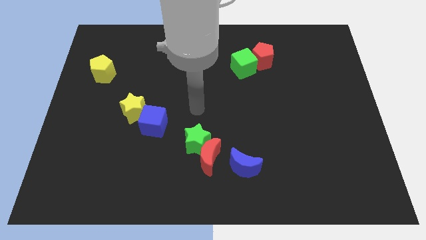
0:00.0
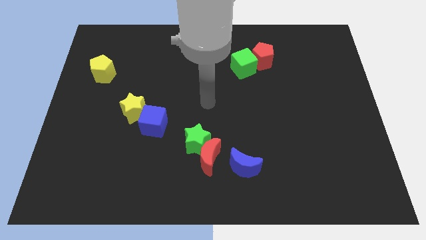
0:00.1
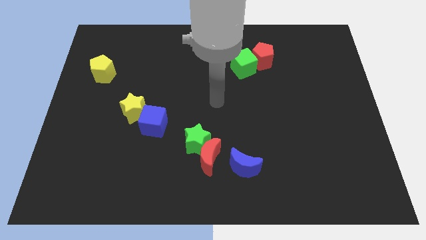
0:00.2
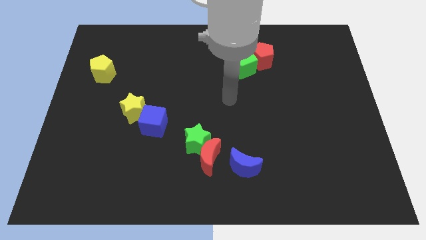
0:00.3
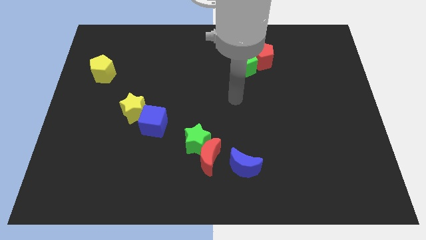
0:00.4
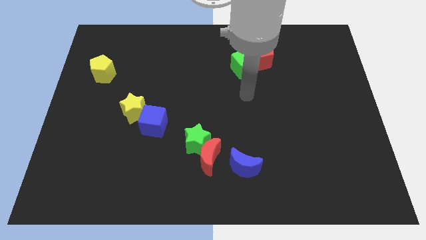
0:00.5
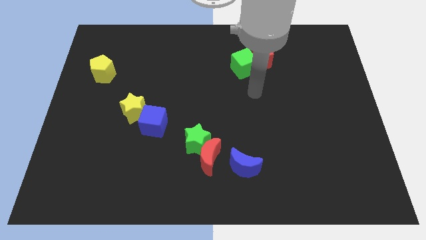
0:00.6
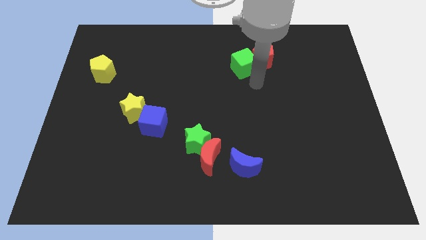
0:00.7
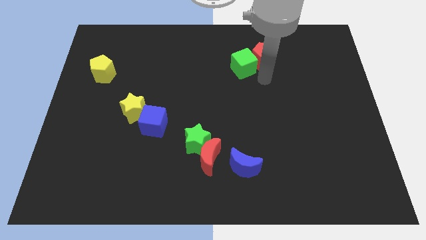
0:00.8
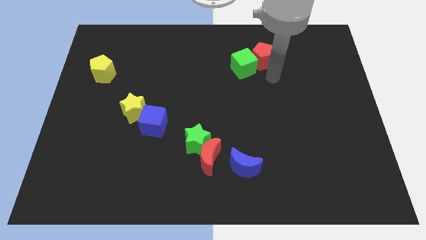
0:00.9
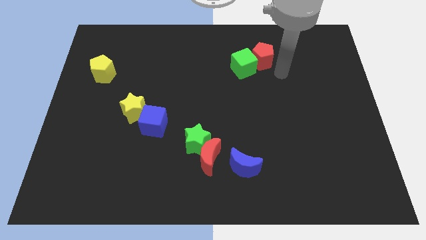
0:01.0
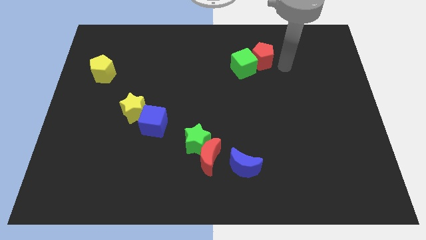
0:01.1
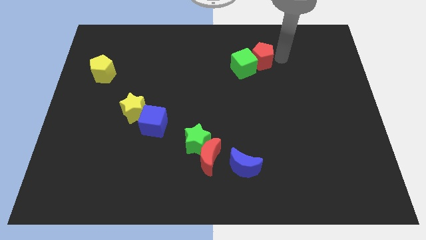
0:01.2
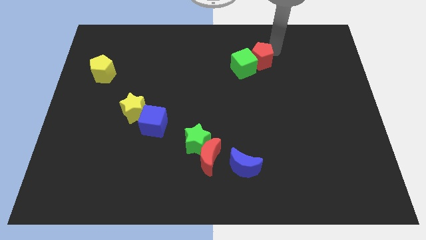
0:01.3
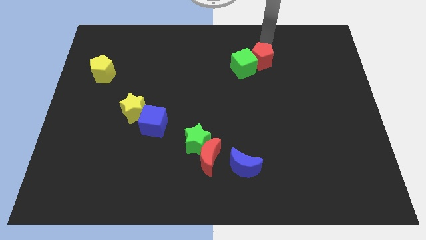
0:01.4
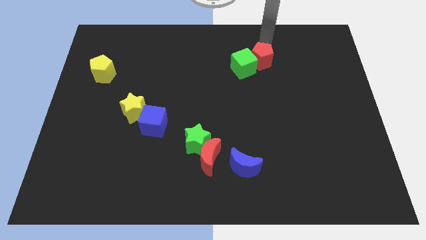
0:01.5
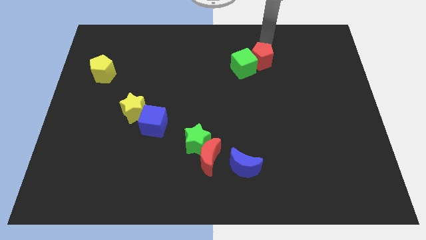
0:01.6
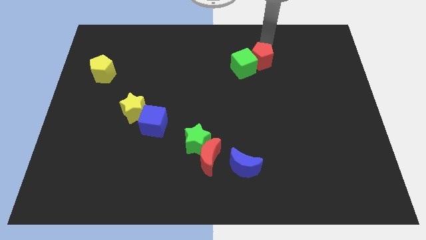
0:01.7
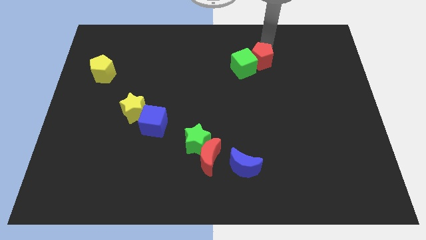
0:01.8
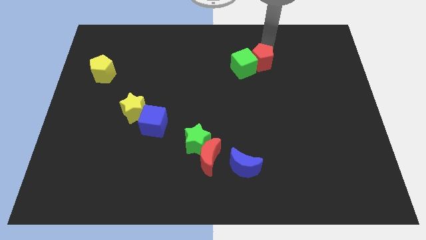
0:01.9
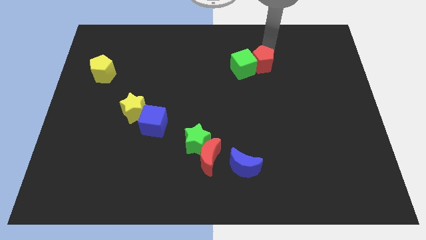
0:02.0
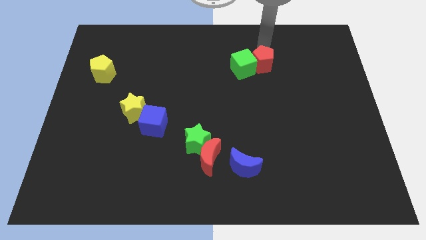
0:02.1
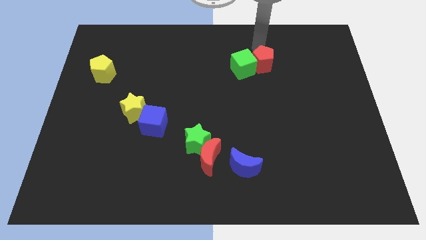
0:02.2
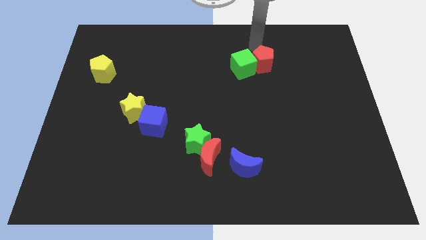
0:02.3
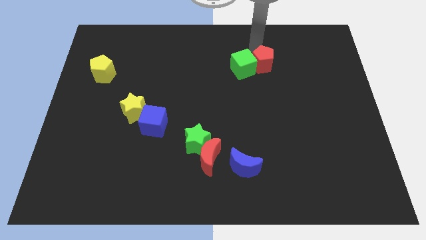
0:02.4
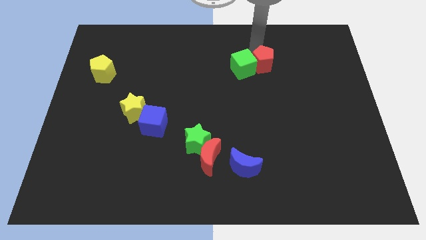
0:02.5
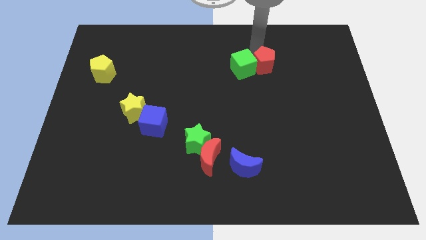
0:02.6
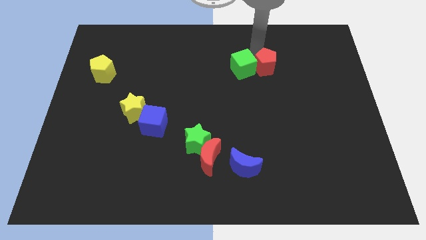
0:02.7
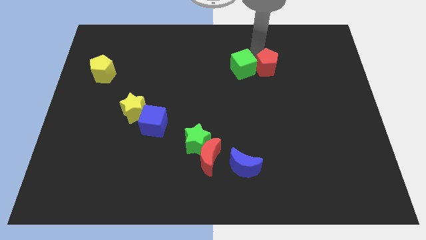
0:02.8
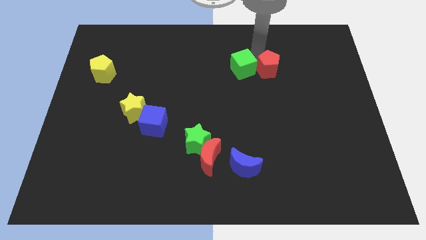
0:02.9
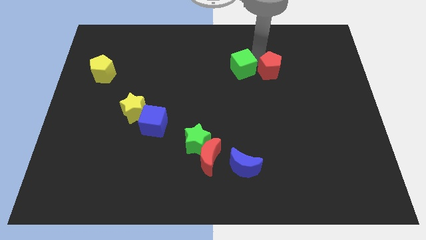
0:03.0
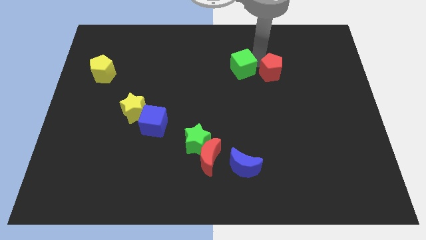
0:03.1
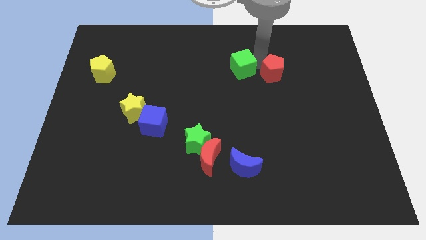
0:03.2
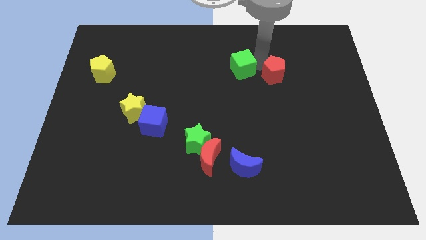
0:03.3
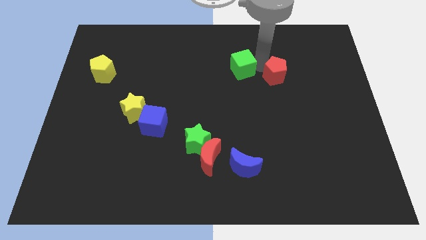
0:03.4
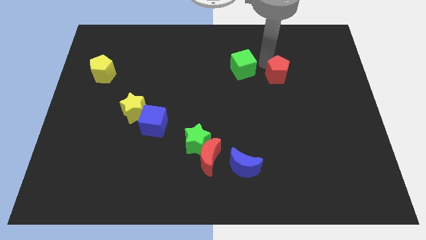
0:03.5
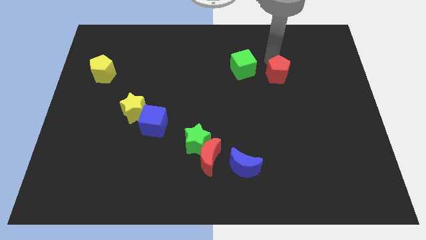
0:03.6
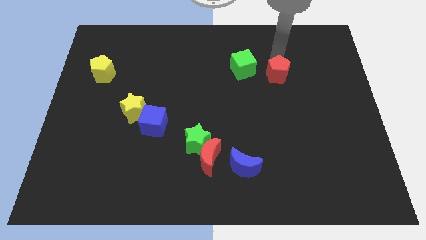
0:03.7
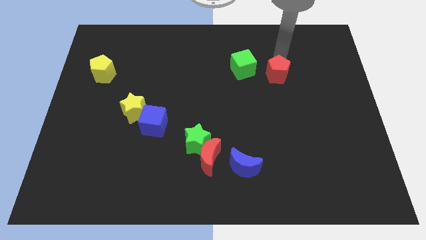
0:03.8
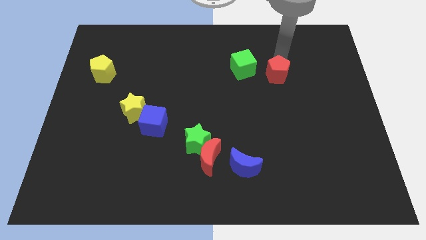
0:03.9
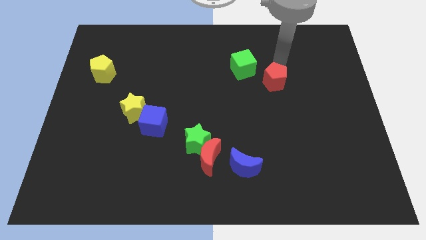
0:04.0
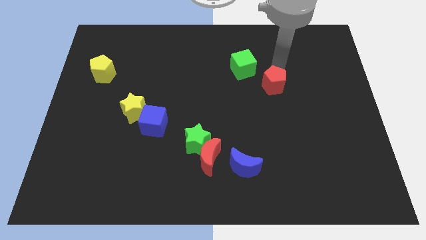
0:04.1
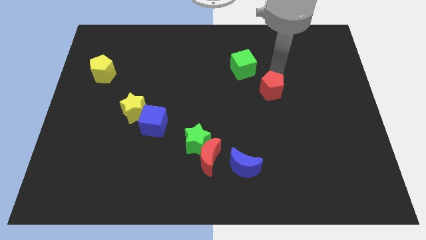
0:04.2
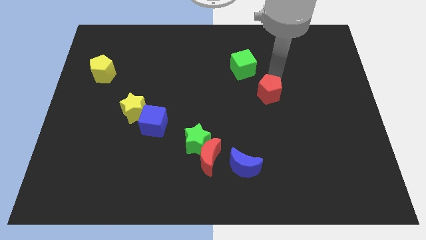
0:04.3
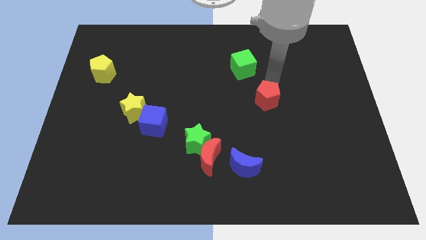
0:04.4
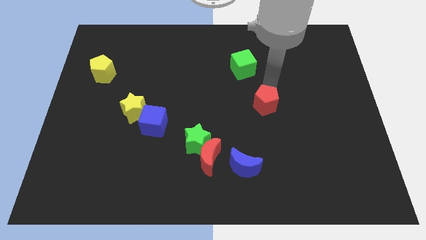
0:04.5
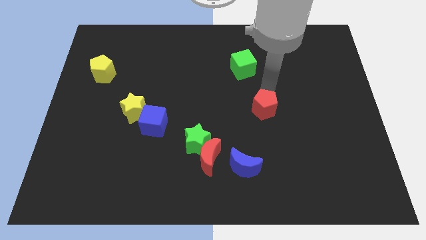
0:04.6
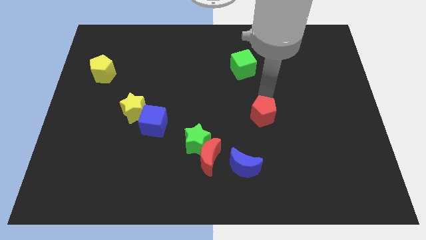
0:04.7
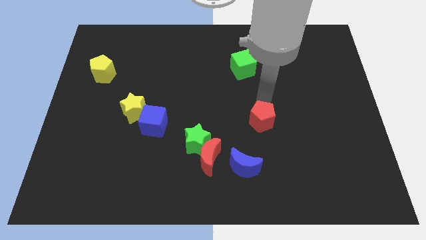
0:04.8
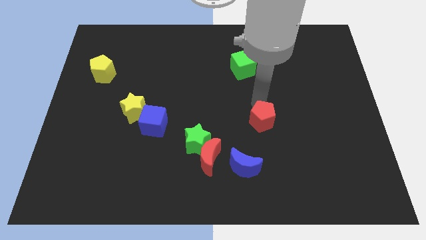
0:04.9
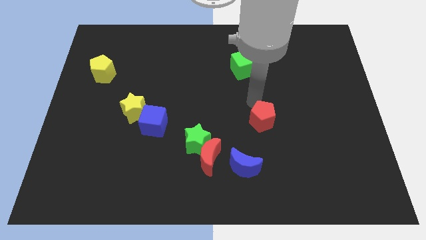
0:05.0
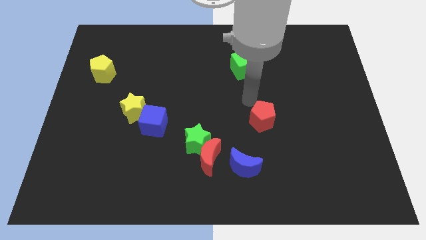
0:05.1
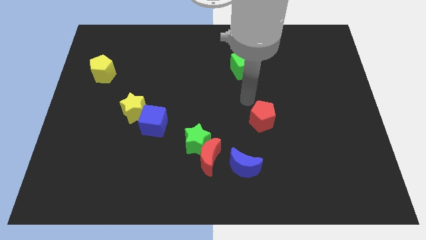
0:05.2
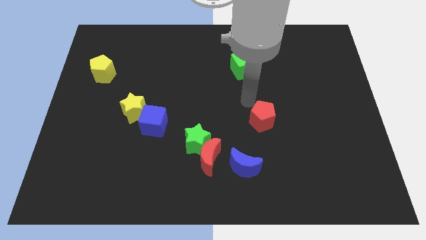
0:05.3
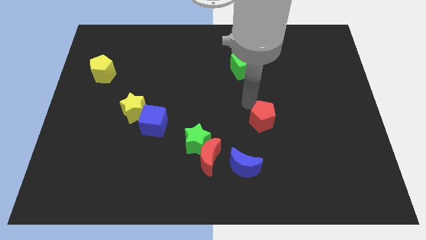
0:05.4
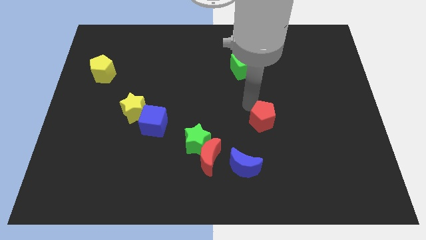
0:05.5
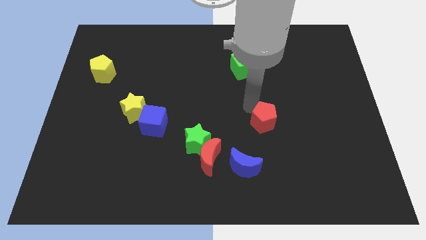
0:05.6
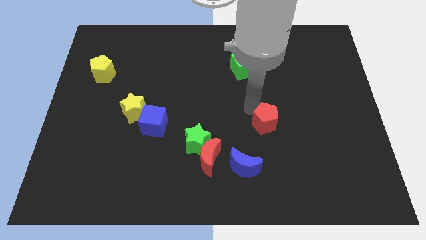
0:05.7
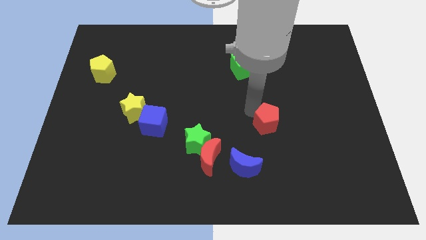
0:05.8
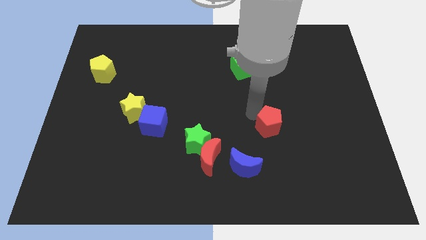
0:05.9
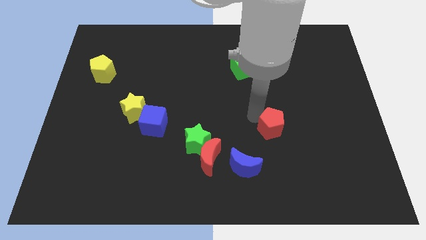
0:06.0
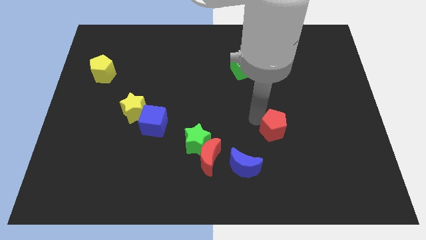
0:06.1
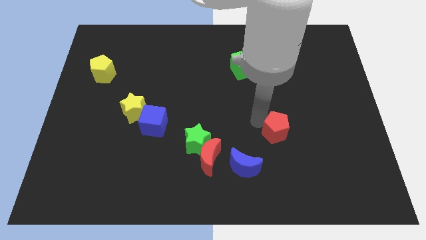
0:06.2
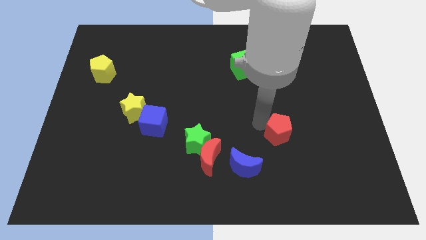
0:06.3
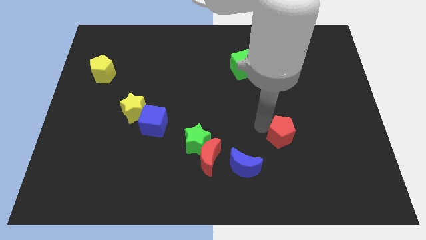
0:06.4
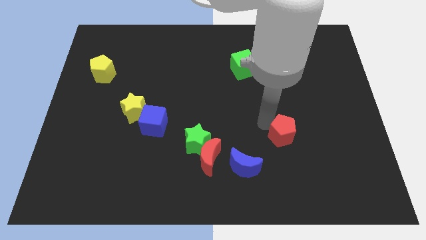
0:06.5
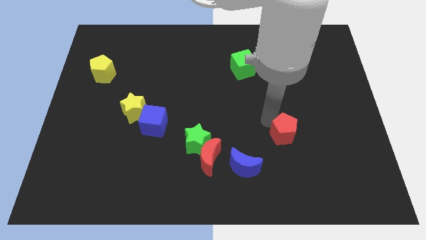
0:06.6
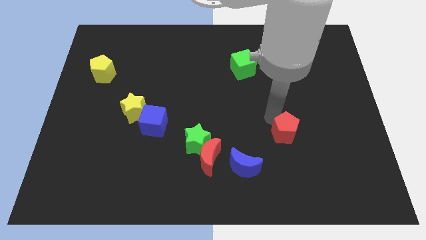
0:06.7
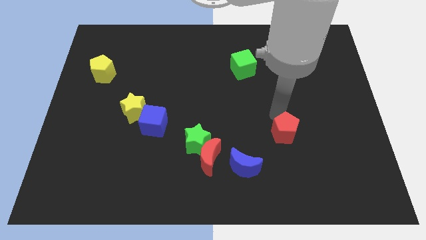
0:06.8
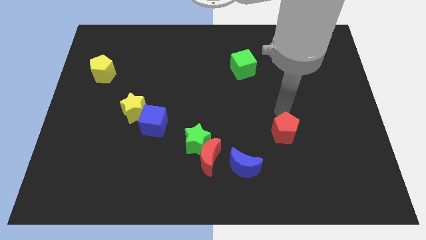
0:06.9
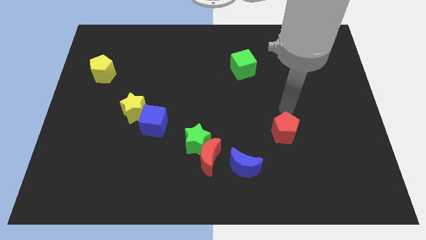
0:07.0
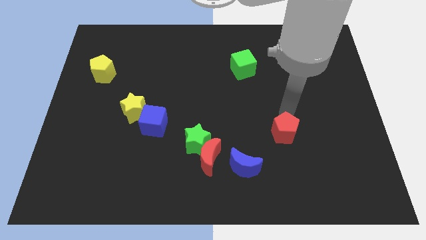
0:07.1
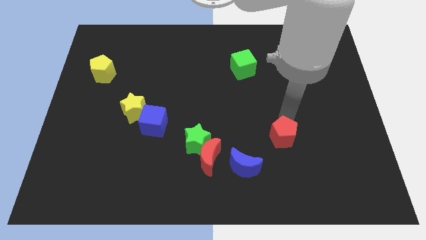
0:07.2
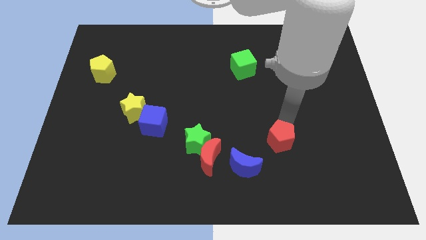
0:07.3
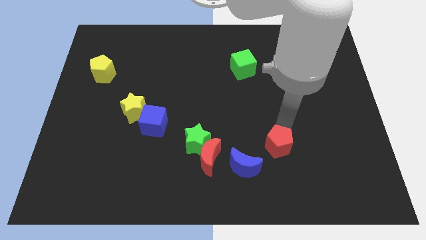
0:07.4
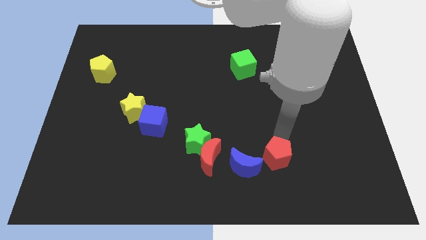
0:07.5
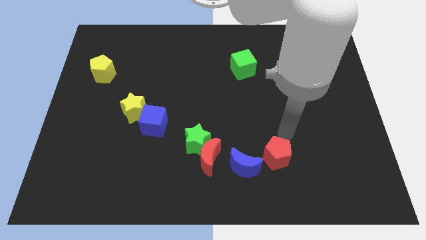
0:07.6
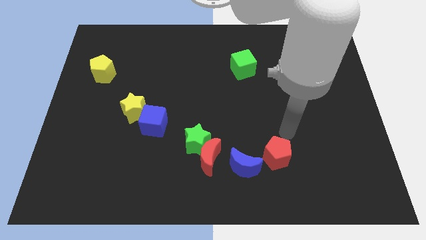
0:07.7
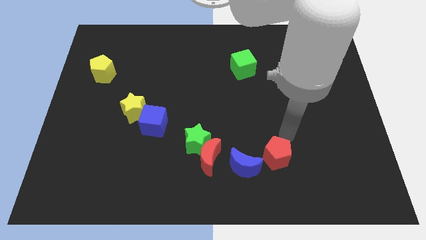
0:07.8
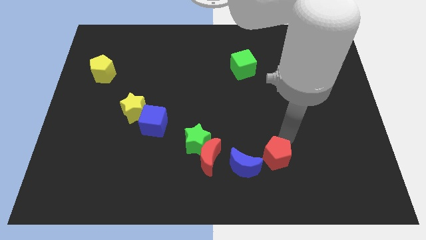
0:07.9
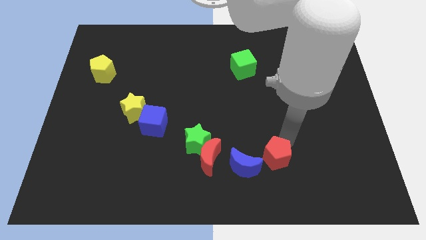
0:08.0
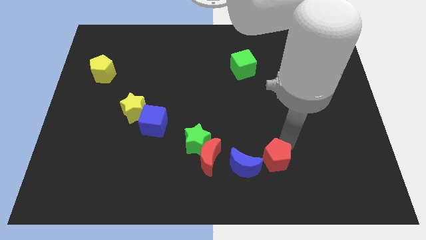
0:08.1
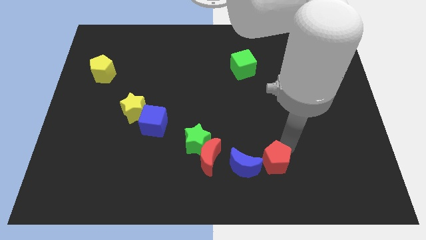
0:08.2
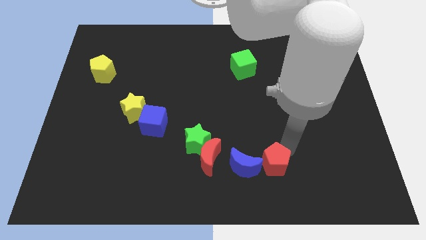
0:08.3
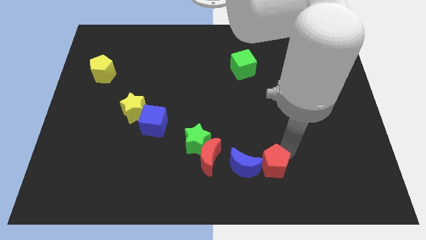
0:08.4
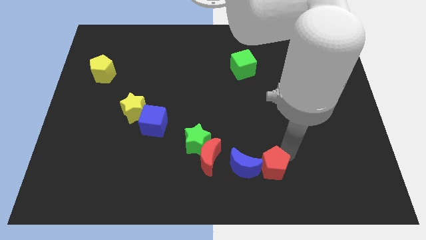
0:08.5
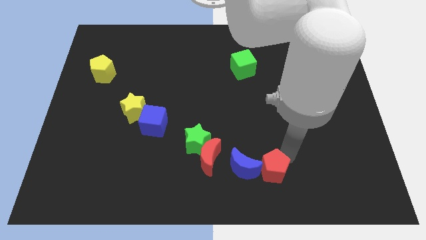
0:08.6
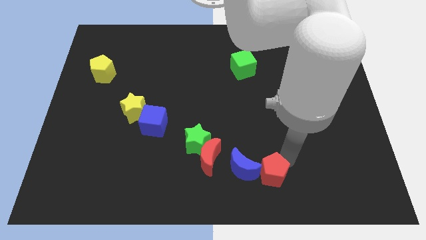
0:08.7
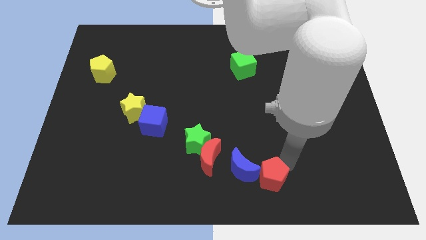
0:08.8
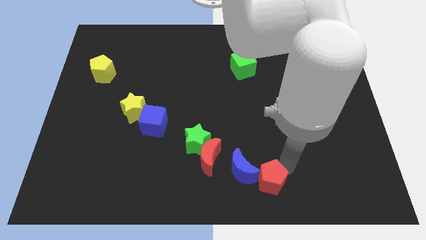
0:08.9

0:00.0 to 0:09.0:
push the red pentagon to the bottom side
